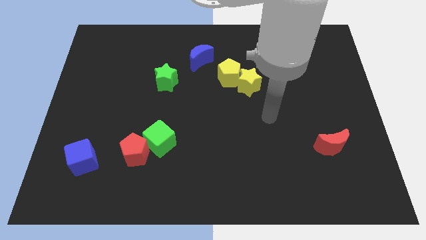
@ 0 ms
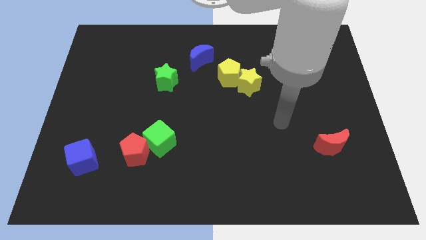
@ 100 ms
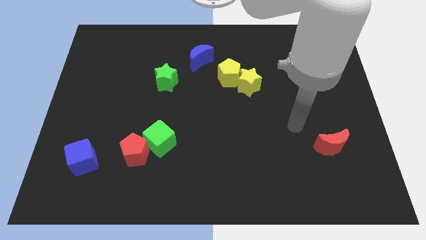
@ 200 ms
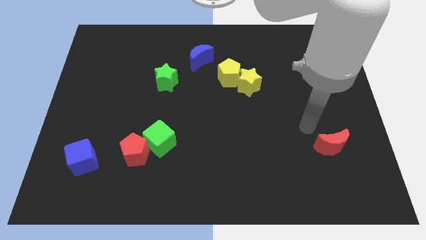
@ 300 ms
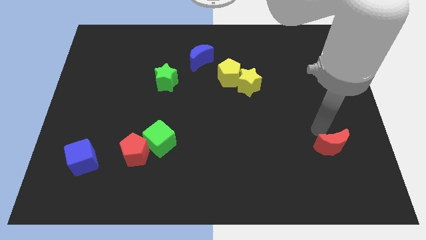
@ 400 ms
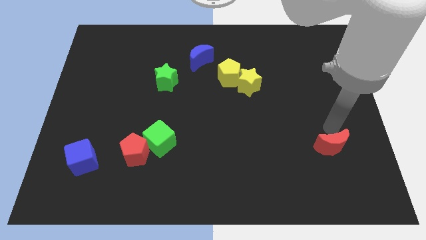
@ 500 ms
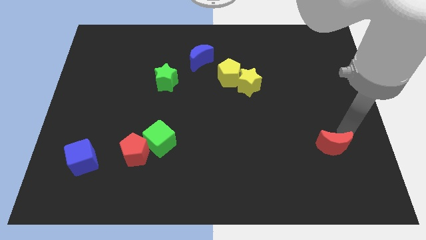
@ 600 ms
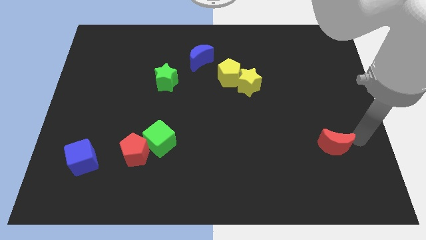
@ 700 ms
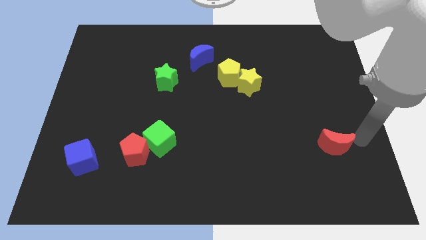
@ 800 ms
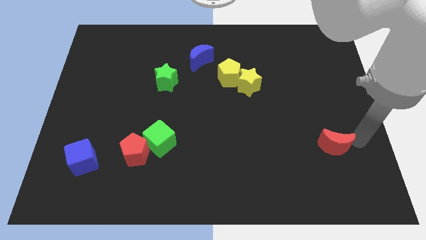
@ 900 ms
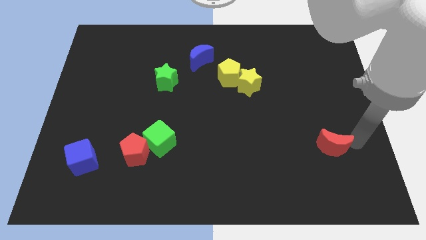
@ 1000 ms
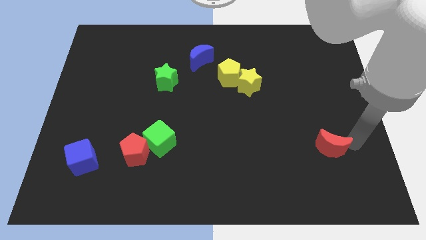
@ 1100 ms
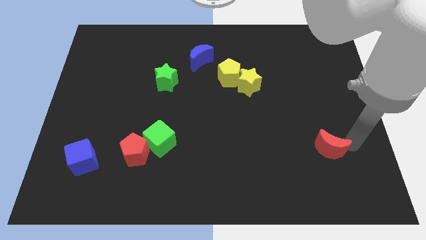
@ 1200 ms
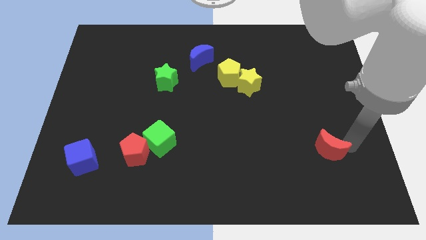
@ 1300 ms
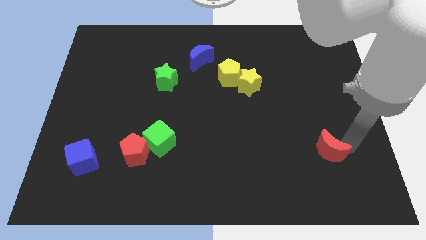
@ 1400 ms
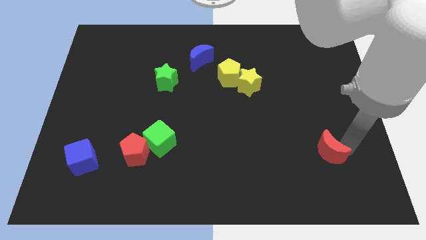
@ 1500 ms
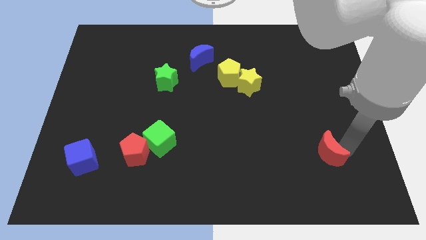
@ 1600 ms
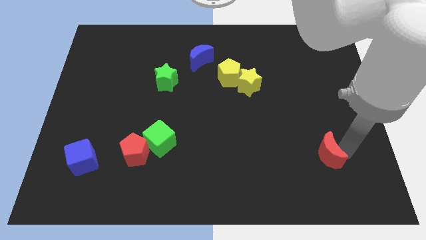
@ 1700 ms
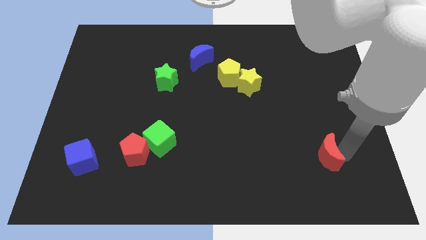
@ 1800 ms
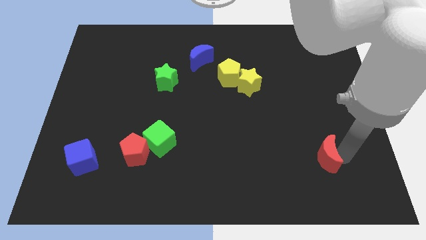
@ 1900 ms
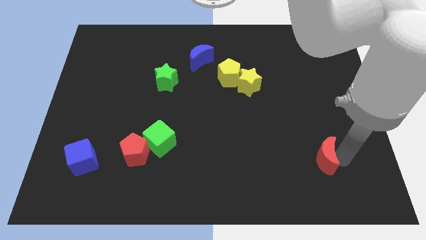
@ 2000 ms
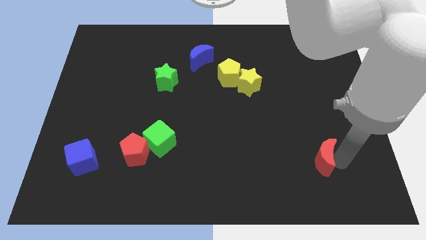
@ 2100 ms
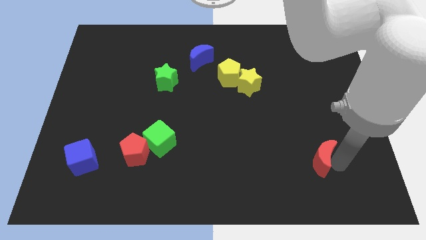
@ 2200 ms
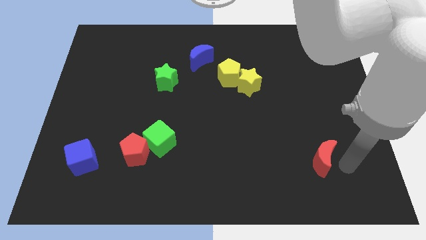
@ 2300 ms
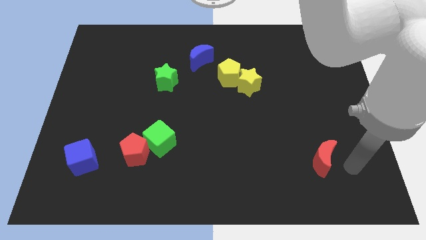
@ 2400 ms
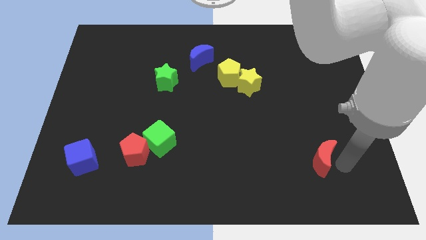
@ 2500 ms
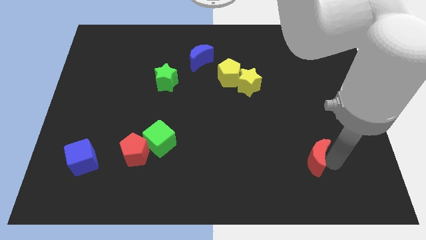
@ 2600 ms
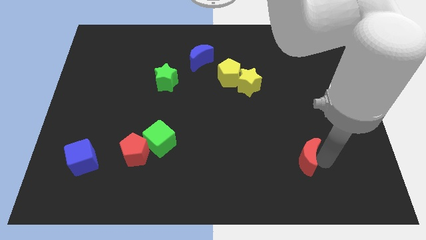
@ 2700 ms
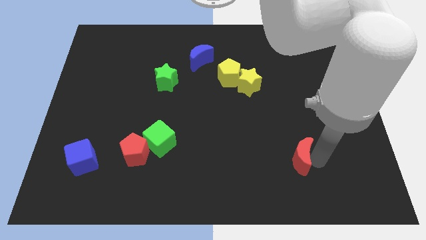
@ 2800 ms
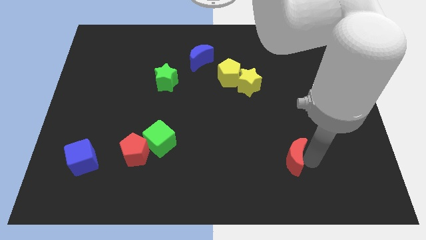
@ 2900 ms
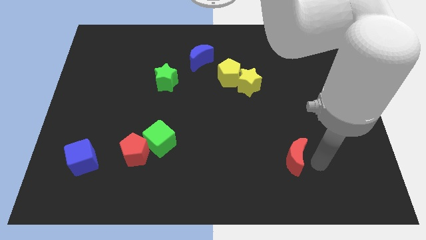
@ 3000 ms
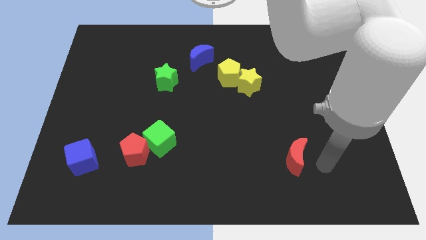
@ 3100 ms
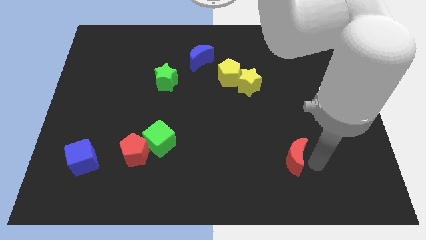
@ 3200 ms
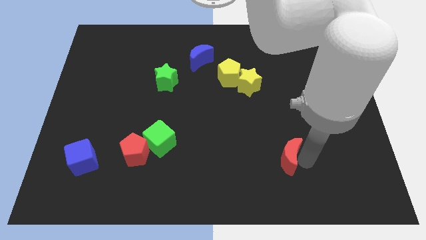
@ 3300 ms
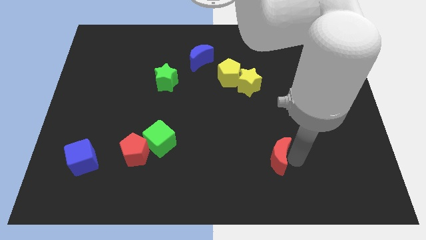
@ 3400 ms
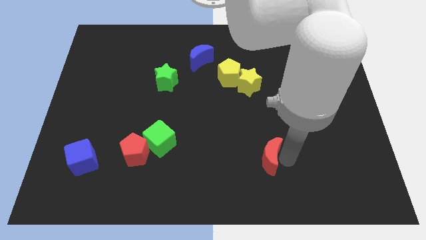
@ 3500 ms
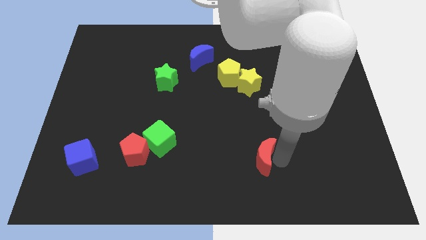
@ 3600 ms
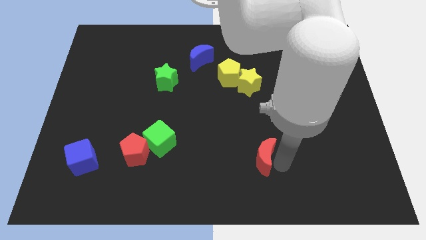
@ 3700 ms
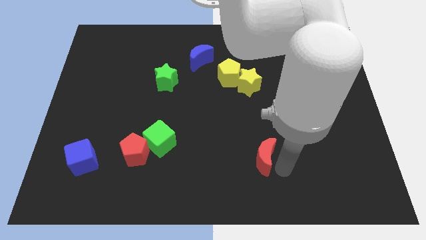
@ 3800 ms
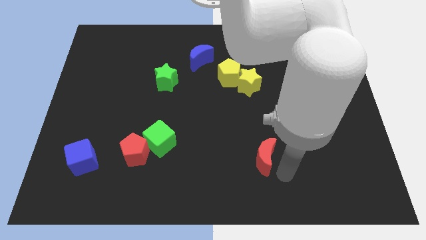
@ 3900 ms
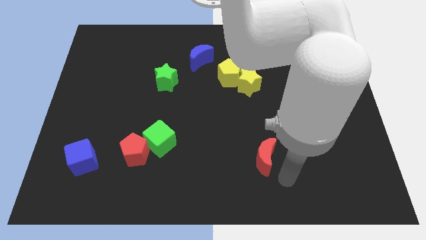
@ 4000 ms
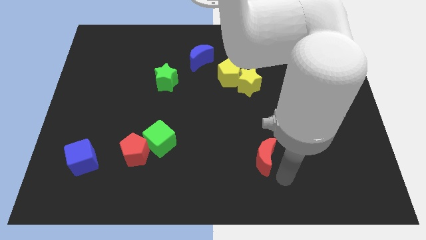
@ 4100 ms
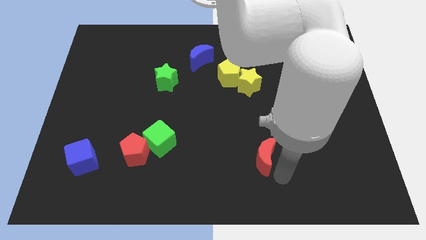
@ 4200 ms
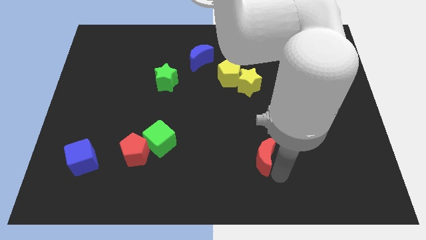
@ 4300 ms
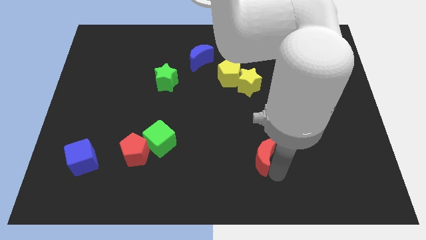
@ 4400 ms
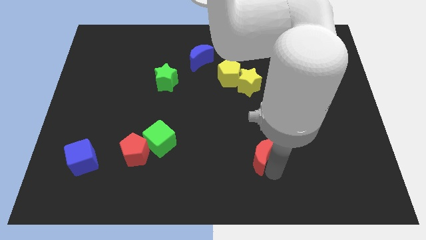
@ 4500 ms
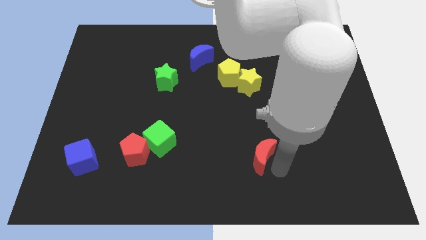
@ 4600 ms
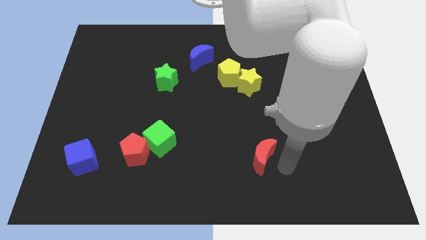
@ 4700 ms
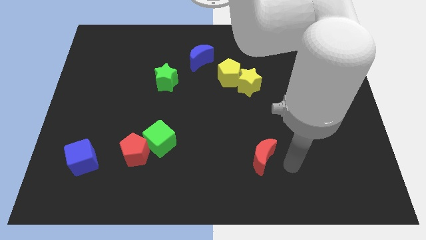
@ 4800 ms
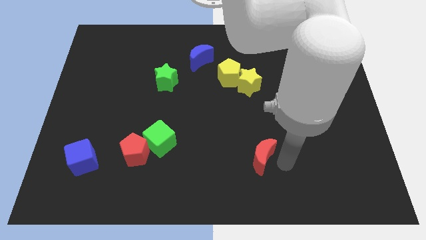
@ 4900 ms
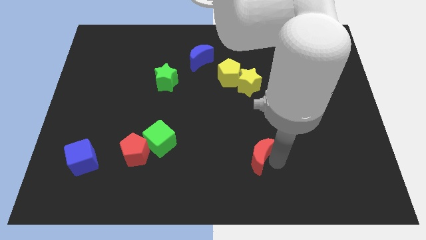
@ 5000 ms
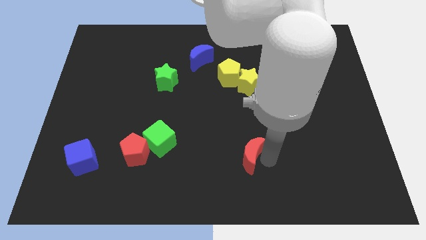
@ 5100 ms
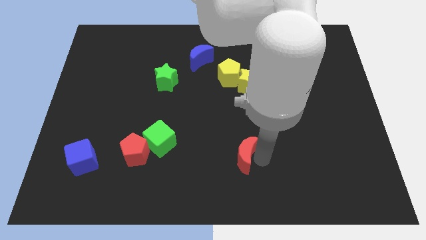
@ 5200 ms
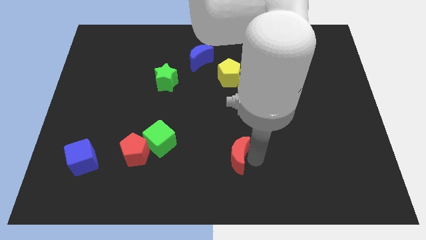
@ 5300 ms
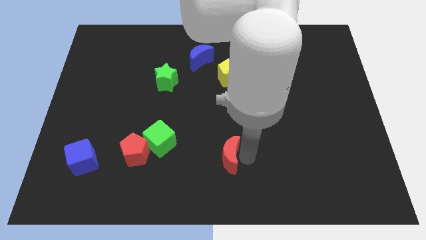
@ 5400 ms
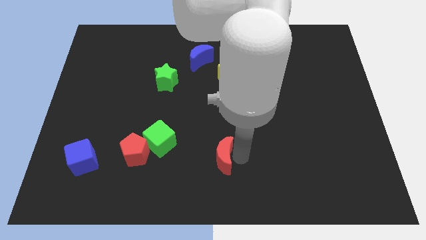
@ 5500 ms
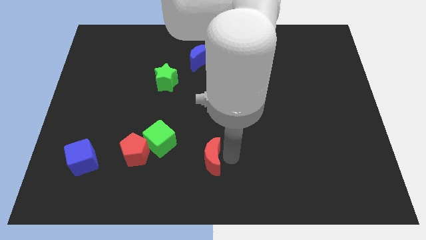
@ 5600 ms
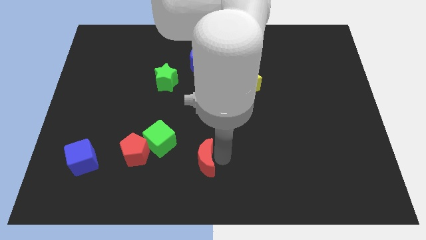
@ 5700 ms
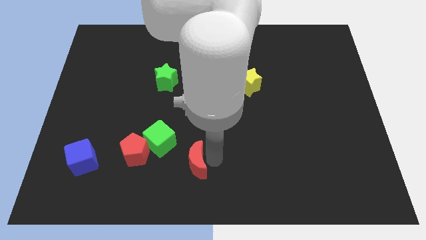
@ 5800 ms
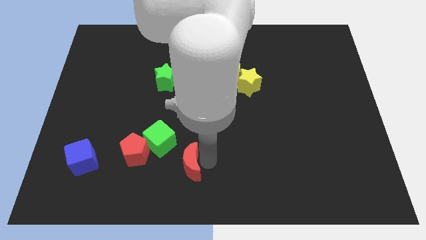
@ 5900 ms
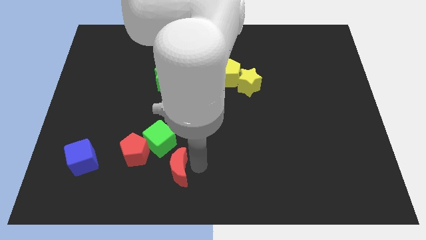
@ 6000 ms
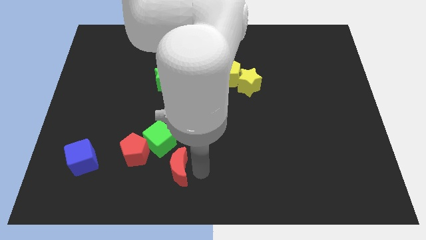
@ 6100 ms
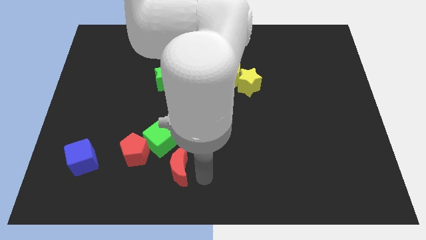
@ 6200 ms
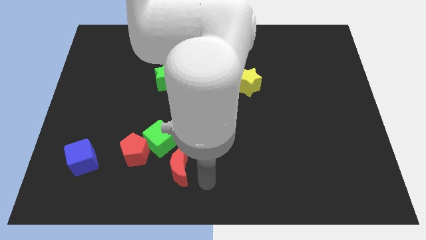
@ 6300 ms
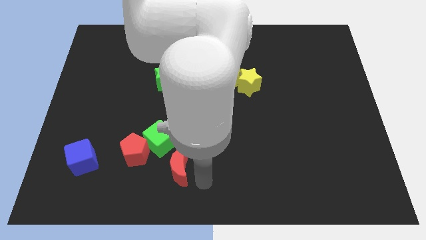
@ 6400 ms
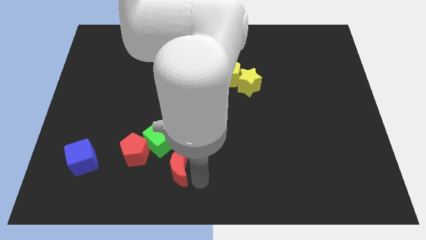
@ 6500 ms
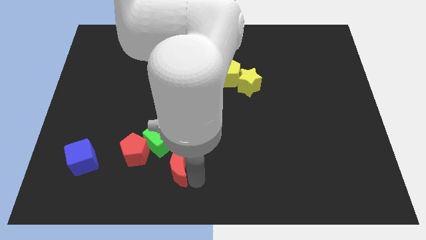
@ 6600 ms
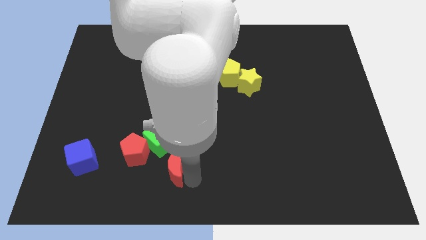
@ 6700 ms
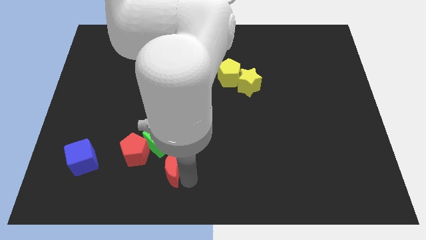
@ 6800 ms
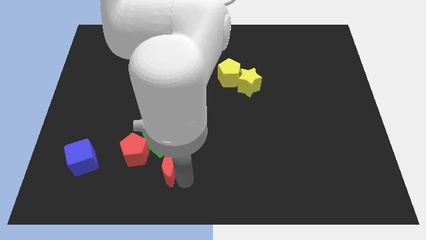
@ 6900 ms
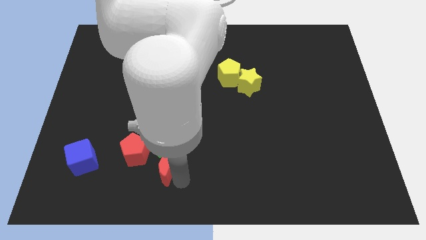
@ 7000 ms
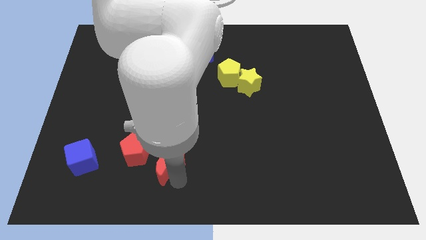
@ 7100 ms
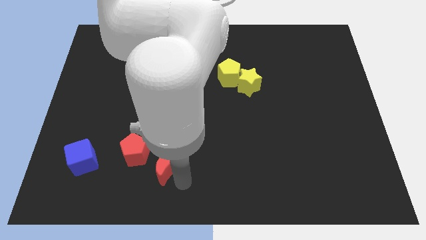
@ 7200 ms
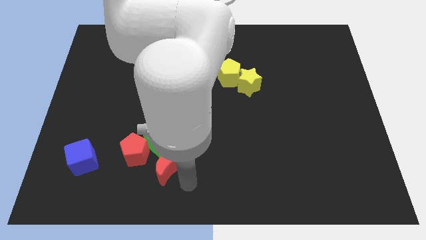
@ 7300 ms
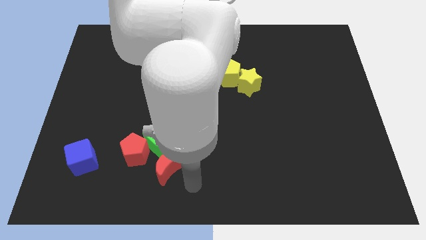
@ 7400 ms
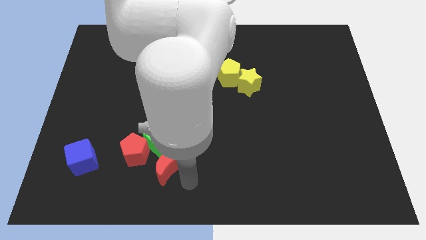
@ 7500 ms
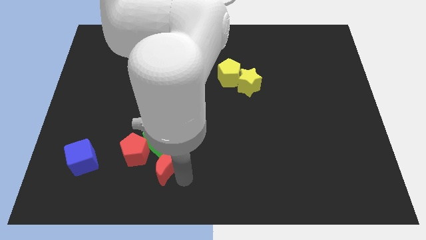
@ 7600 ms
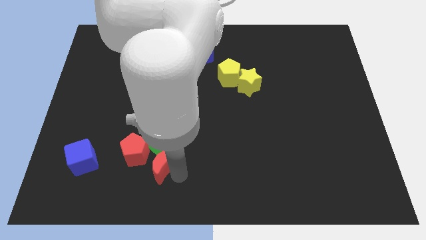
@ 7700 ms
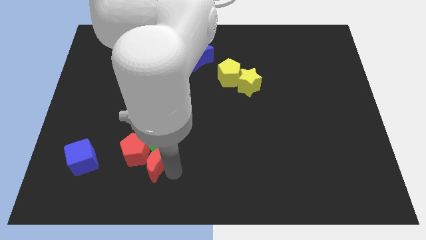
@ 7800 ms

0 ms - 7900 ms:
slide the red moon close to the red pentagon
